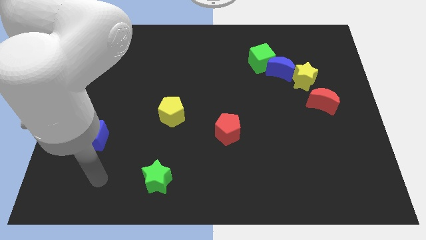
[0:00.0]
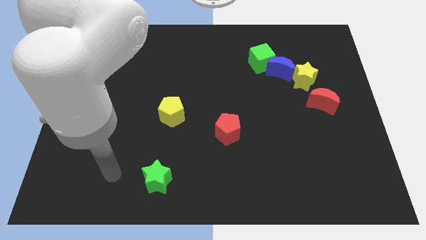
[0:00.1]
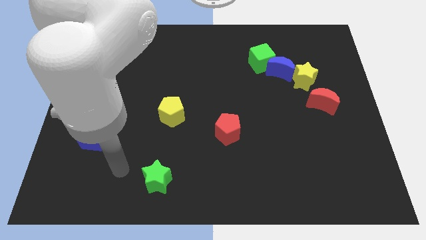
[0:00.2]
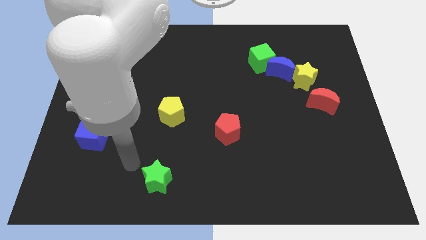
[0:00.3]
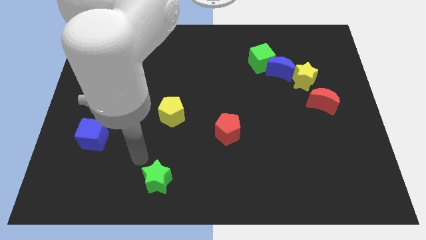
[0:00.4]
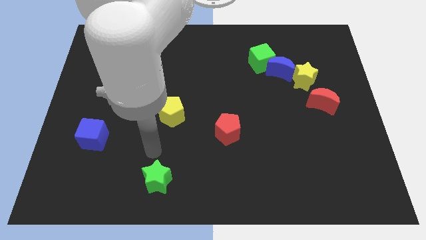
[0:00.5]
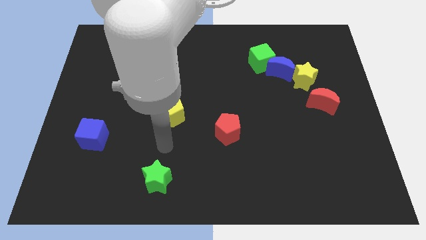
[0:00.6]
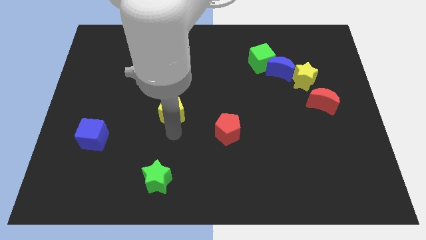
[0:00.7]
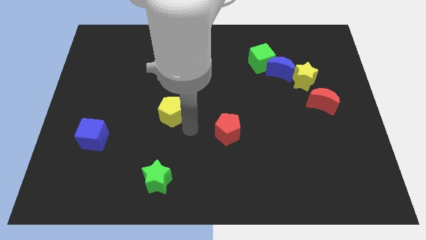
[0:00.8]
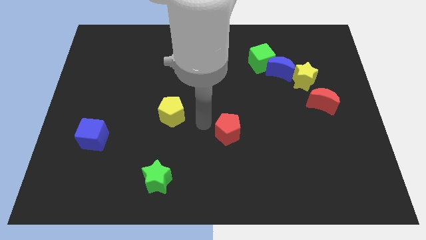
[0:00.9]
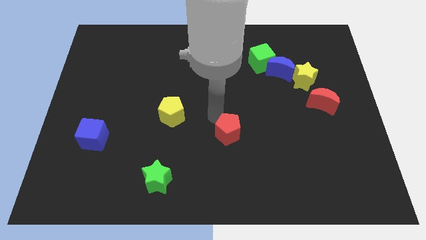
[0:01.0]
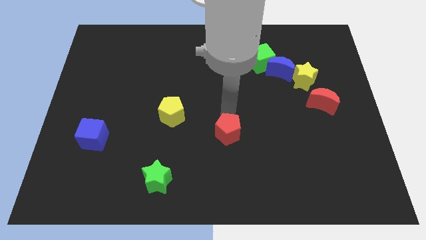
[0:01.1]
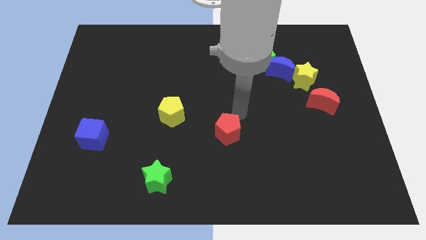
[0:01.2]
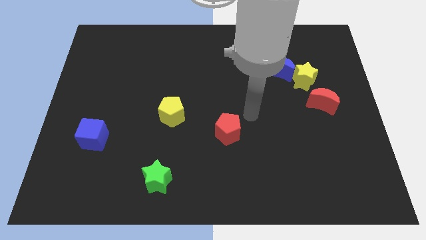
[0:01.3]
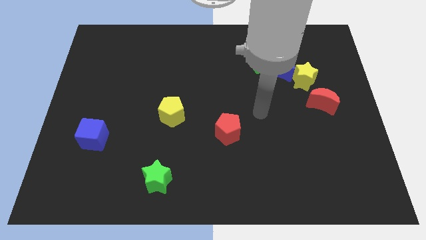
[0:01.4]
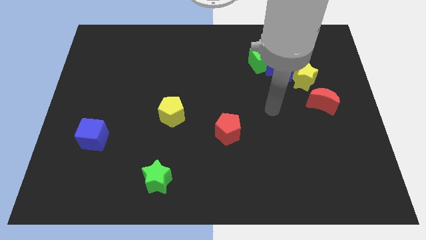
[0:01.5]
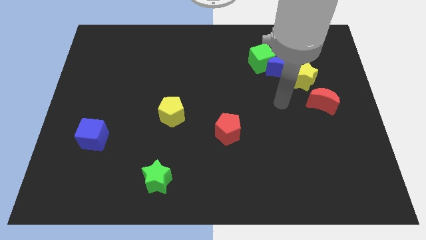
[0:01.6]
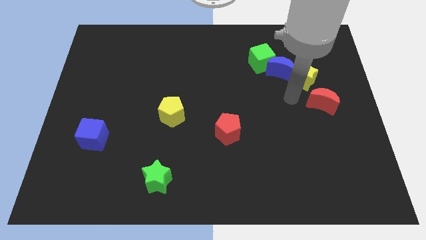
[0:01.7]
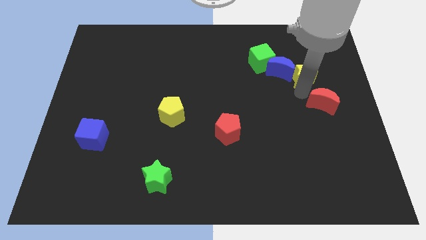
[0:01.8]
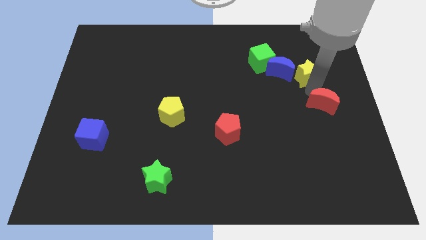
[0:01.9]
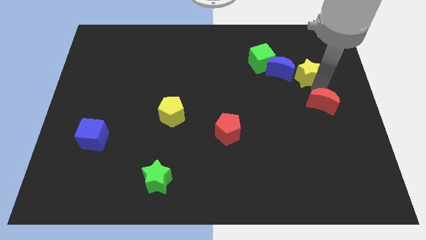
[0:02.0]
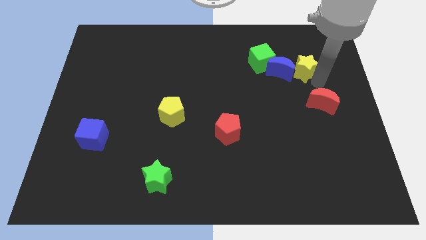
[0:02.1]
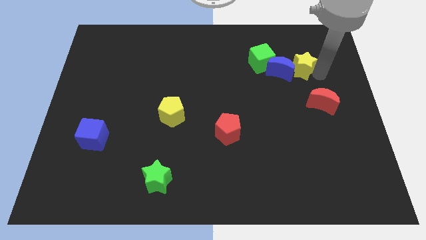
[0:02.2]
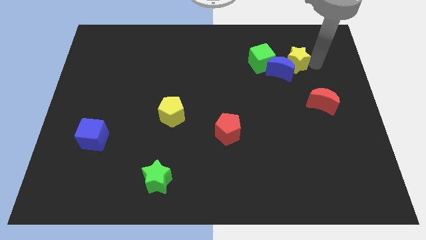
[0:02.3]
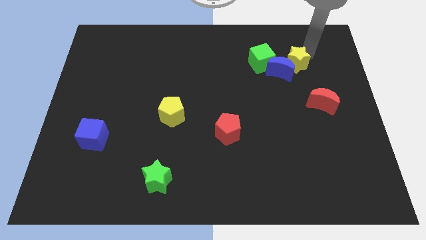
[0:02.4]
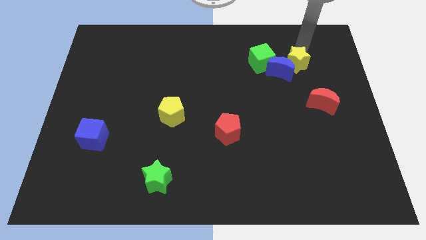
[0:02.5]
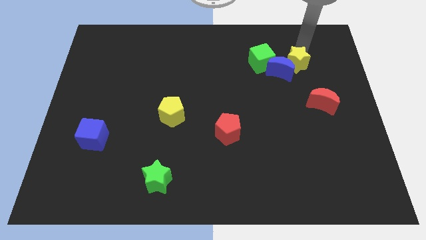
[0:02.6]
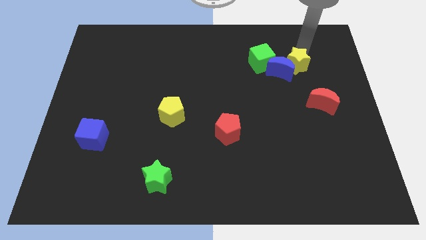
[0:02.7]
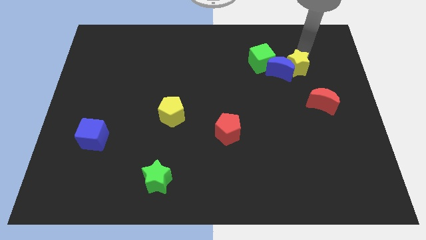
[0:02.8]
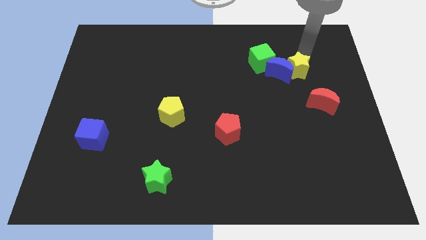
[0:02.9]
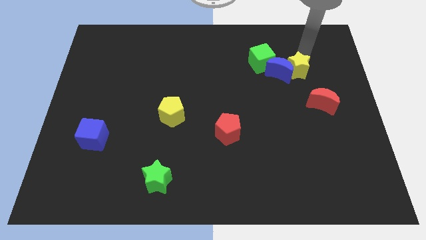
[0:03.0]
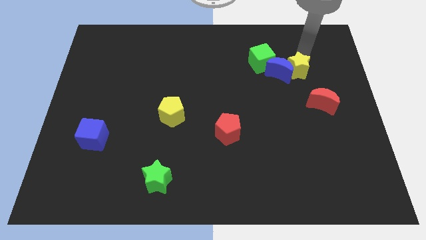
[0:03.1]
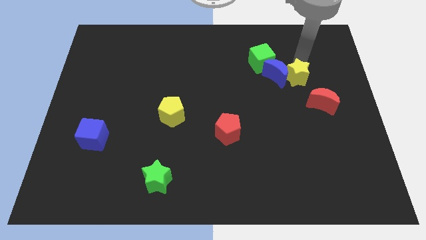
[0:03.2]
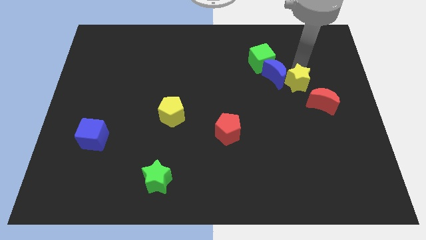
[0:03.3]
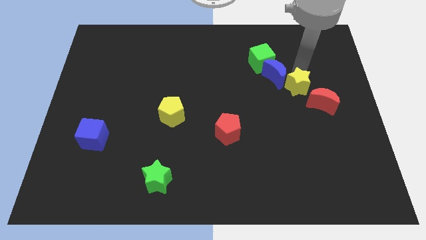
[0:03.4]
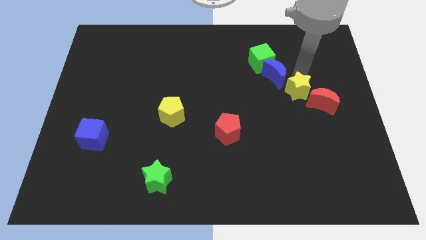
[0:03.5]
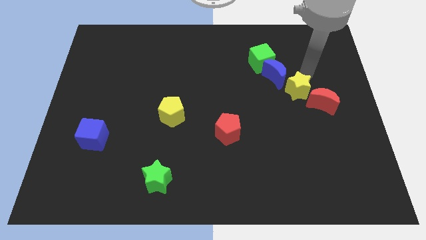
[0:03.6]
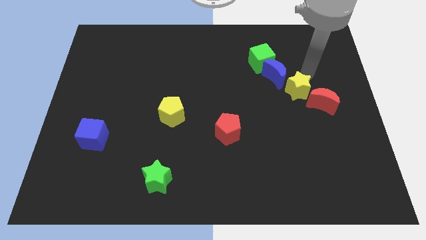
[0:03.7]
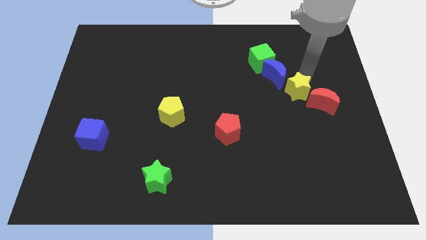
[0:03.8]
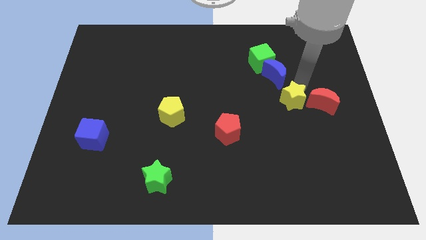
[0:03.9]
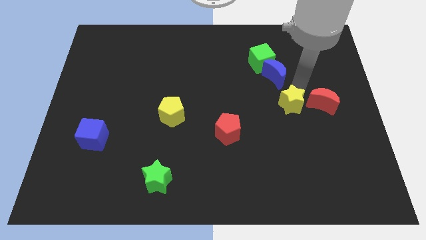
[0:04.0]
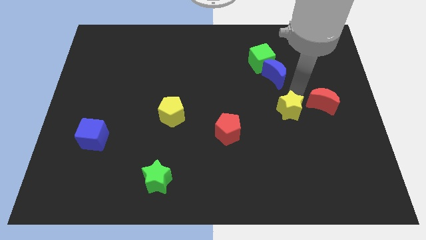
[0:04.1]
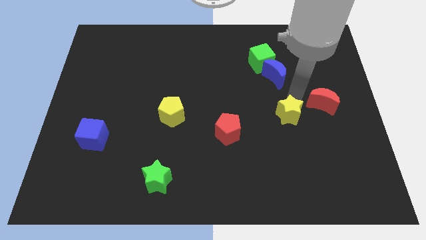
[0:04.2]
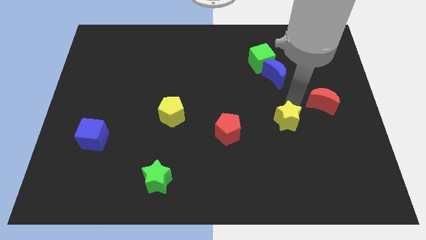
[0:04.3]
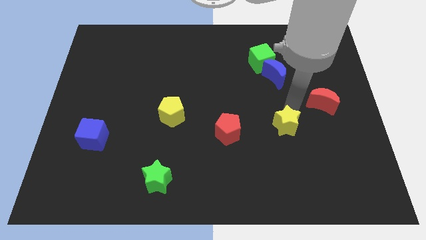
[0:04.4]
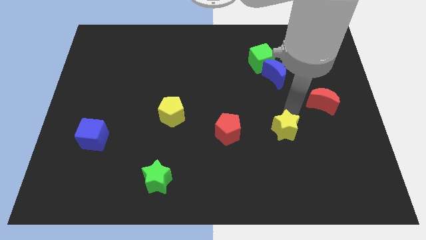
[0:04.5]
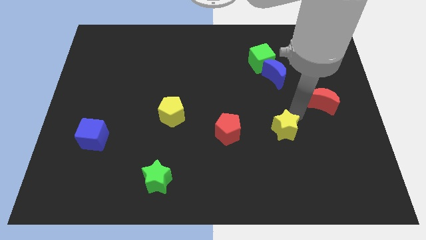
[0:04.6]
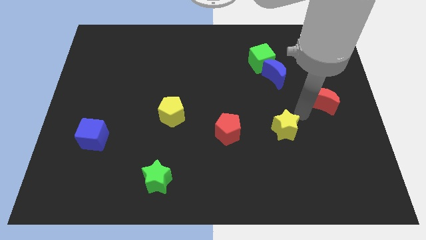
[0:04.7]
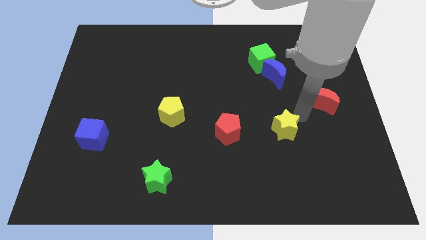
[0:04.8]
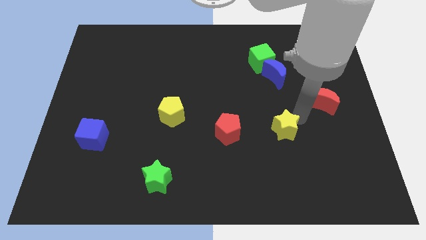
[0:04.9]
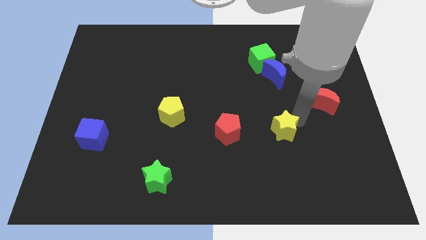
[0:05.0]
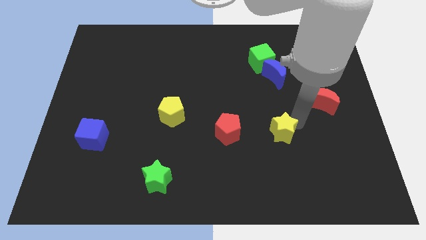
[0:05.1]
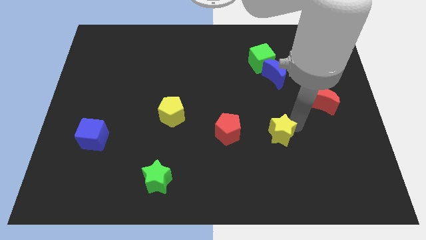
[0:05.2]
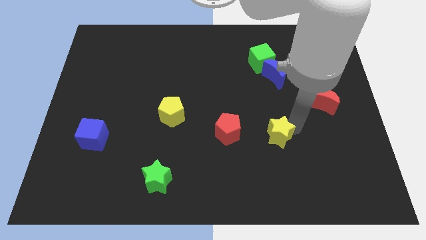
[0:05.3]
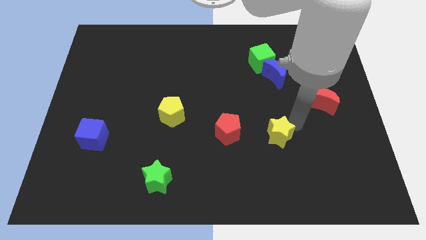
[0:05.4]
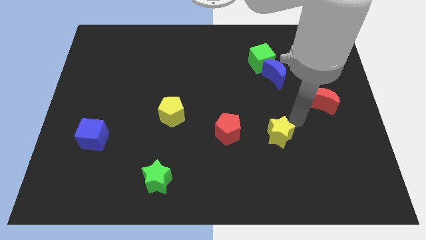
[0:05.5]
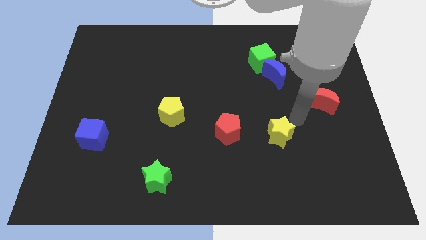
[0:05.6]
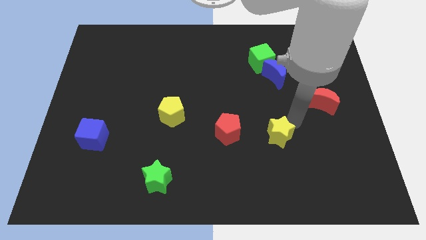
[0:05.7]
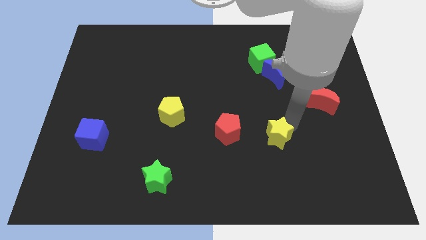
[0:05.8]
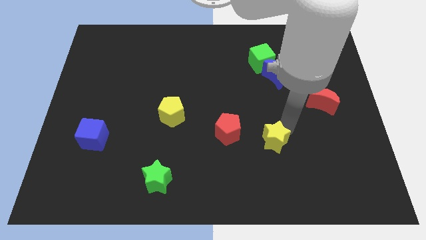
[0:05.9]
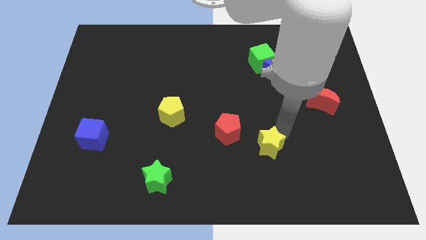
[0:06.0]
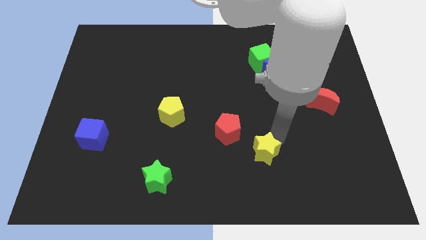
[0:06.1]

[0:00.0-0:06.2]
slide the yellow star down and left diagonally

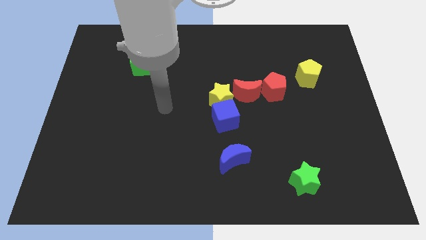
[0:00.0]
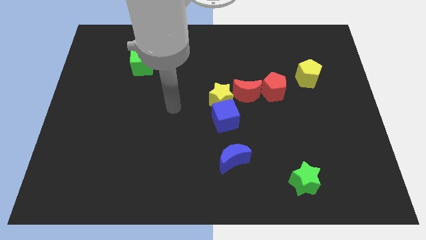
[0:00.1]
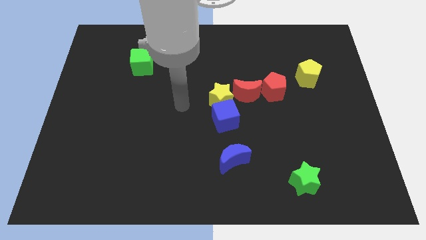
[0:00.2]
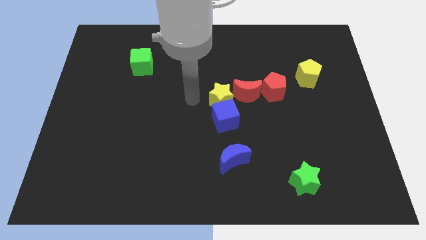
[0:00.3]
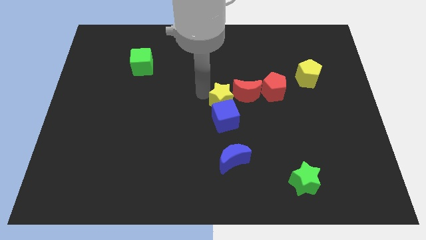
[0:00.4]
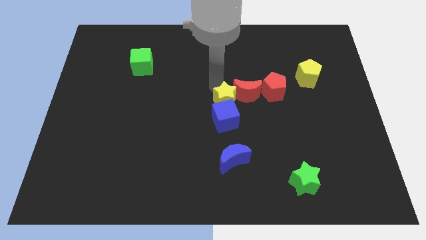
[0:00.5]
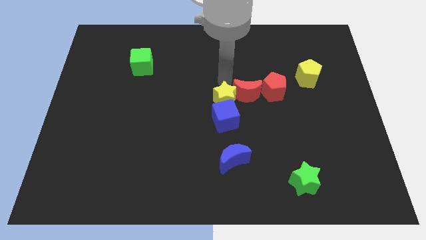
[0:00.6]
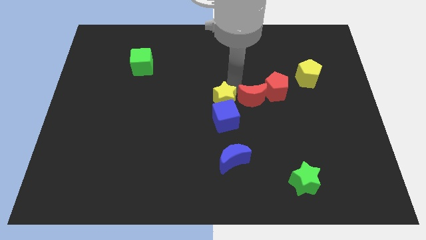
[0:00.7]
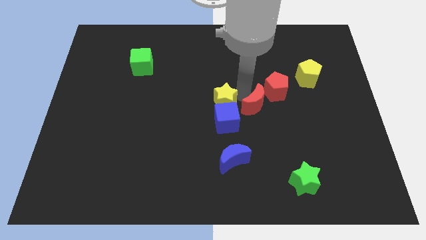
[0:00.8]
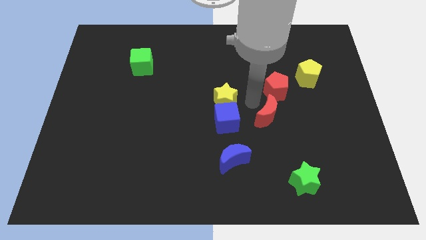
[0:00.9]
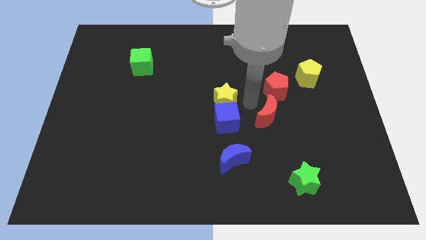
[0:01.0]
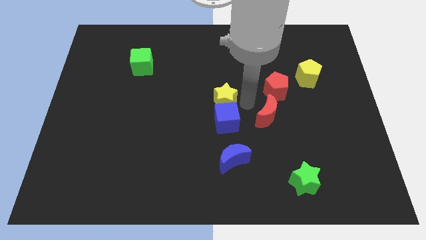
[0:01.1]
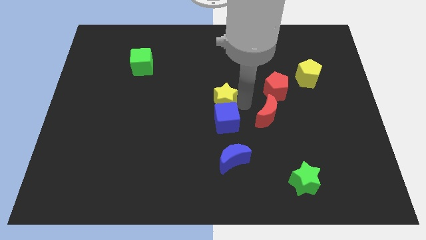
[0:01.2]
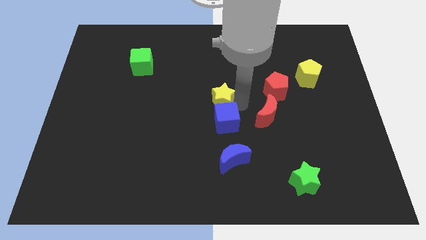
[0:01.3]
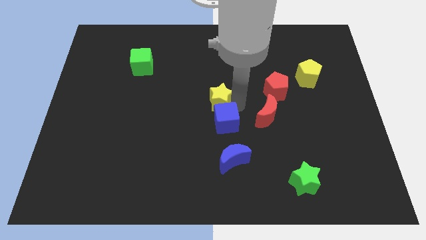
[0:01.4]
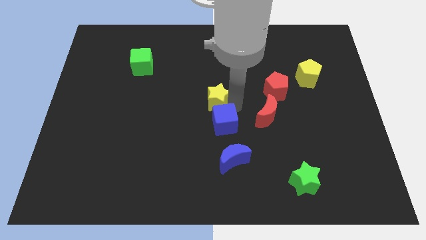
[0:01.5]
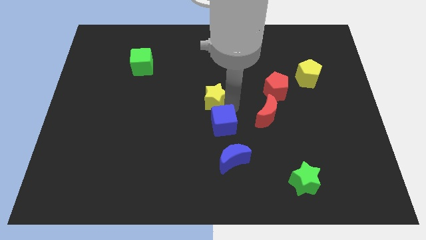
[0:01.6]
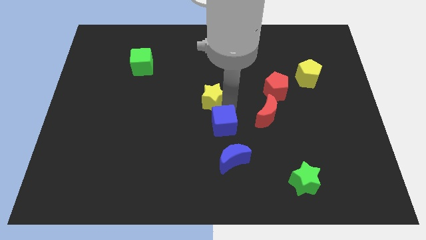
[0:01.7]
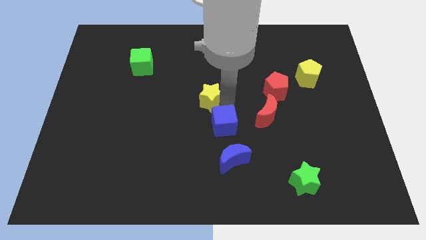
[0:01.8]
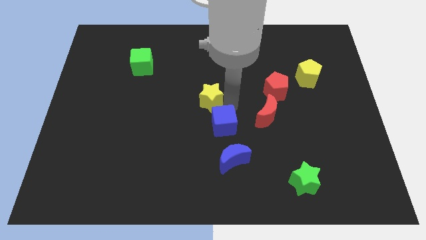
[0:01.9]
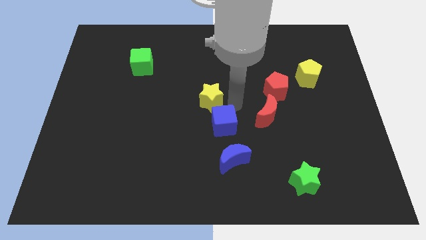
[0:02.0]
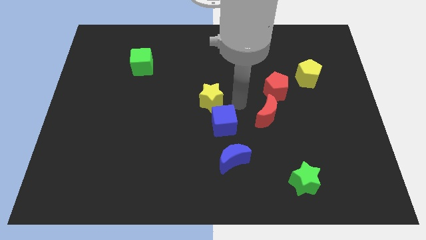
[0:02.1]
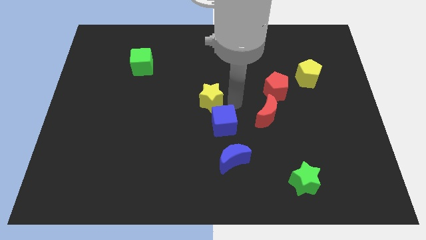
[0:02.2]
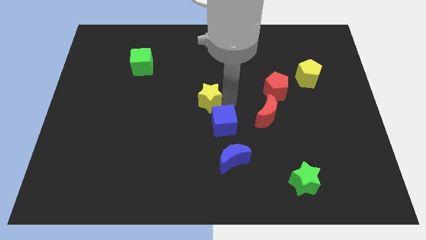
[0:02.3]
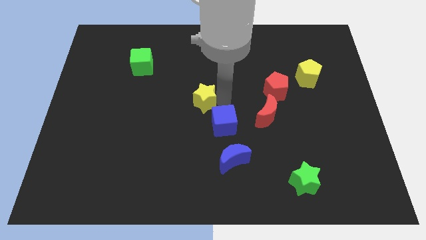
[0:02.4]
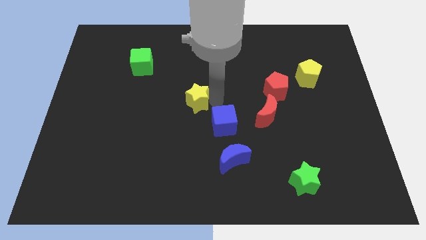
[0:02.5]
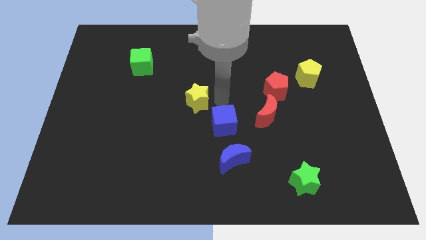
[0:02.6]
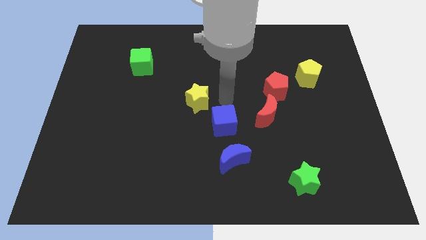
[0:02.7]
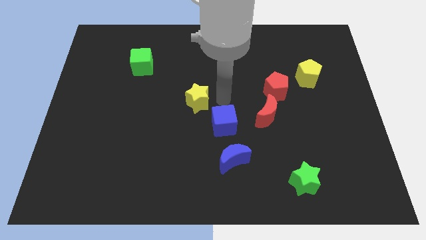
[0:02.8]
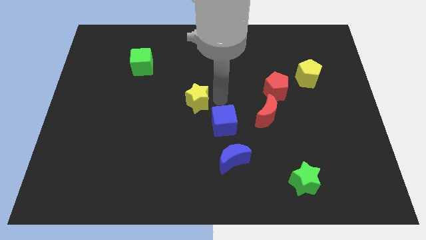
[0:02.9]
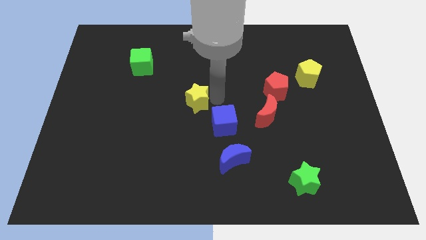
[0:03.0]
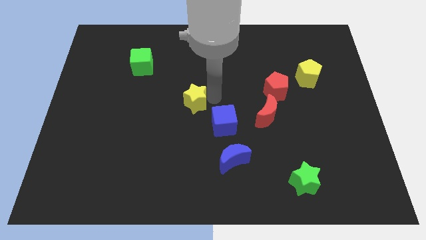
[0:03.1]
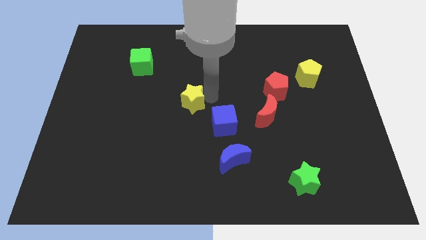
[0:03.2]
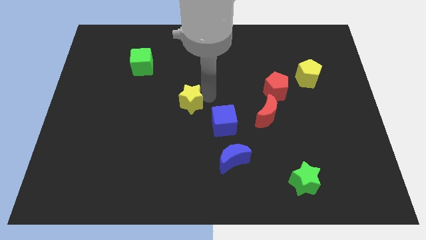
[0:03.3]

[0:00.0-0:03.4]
slightly push the yellow star to the left
